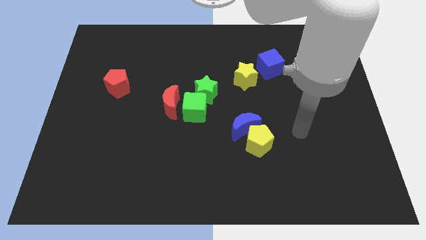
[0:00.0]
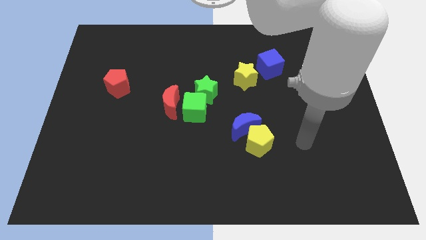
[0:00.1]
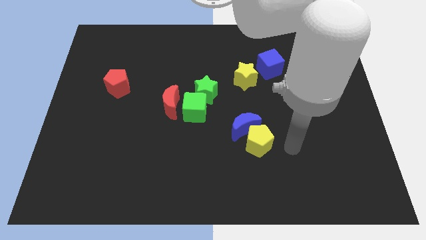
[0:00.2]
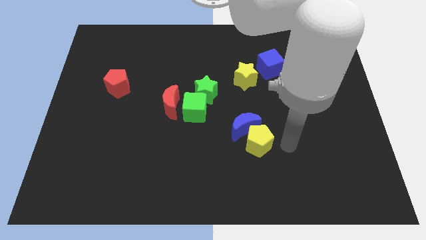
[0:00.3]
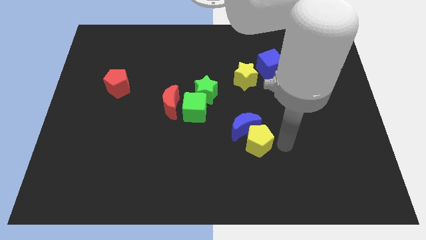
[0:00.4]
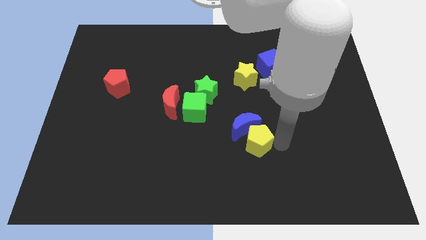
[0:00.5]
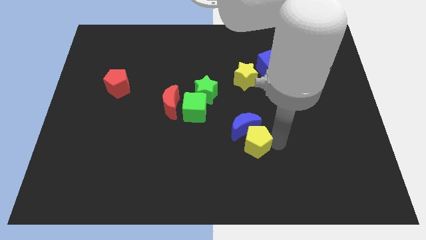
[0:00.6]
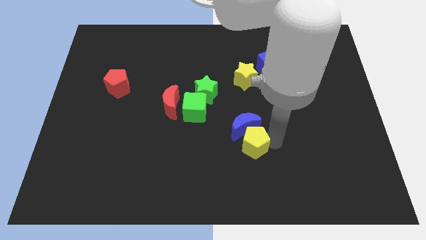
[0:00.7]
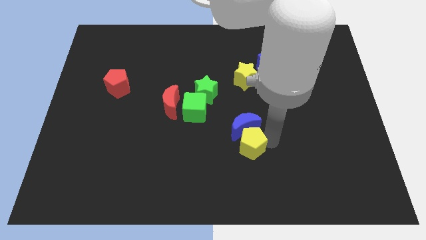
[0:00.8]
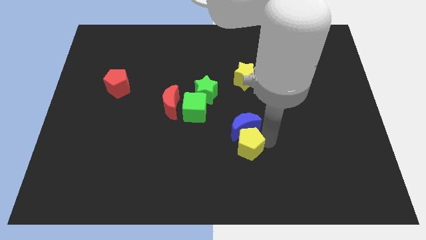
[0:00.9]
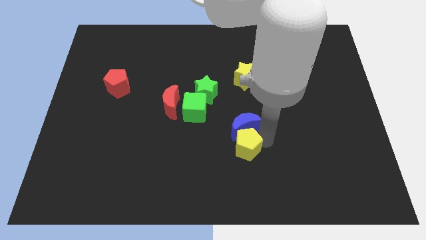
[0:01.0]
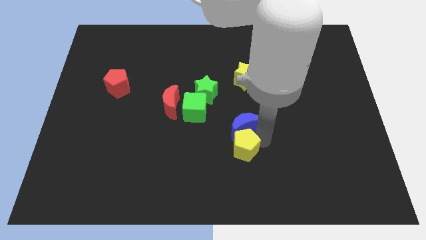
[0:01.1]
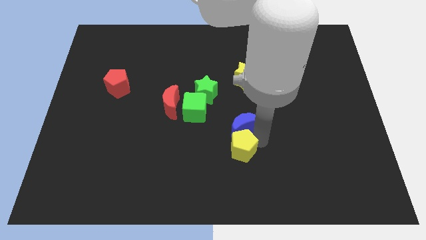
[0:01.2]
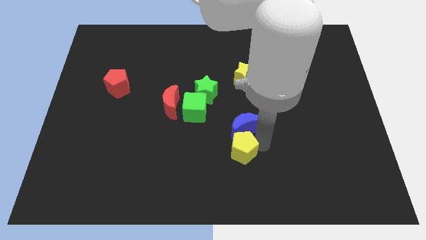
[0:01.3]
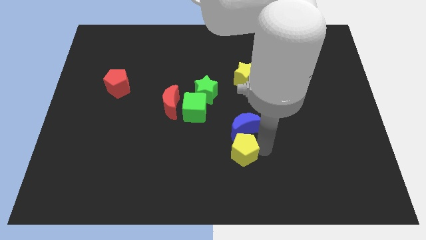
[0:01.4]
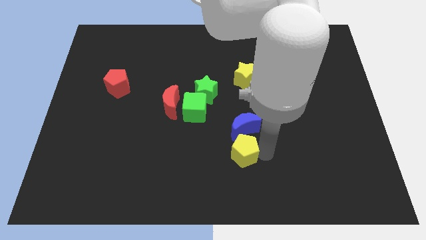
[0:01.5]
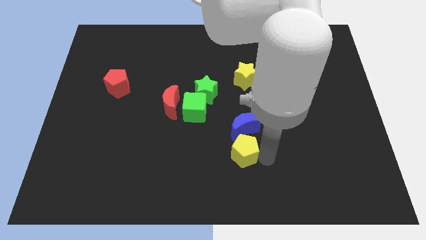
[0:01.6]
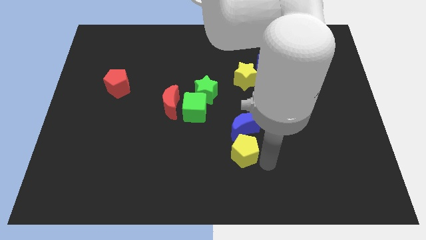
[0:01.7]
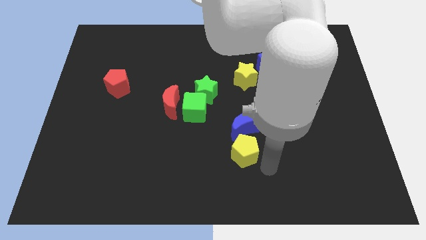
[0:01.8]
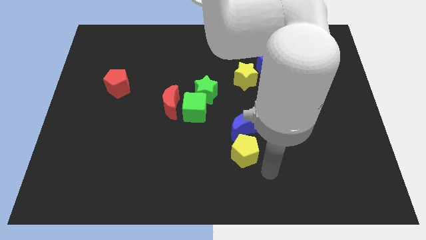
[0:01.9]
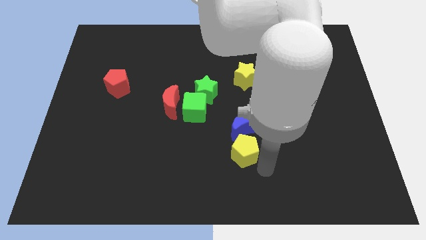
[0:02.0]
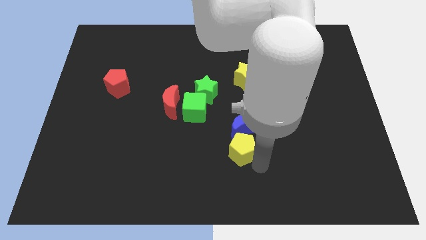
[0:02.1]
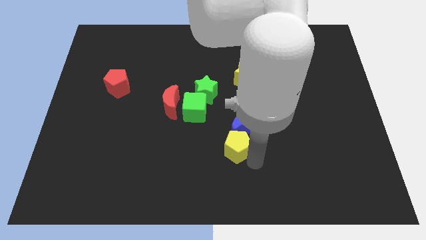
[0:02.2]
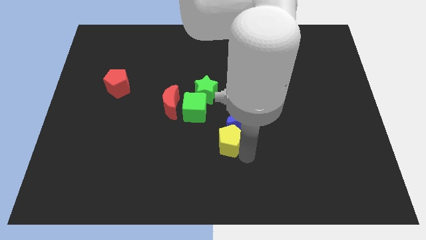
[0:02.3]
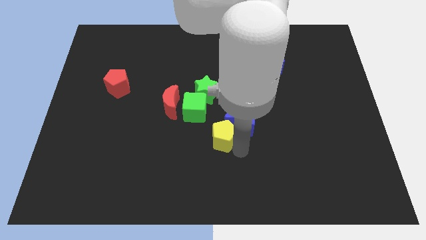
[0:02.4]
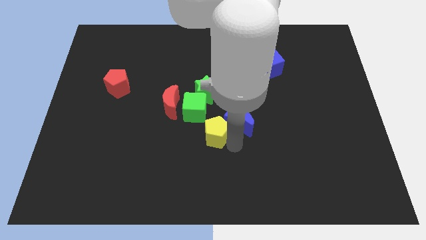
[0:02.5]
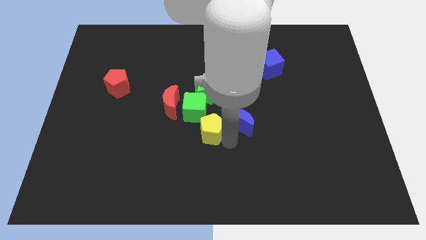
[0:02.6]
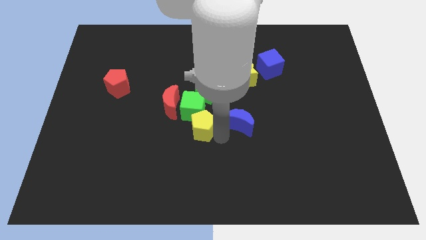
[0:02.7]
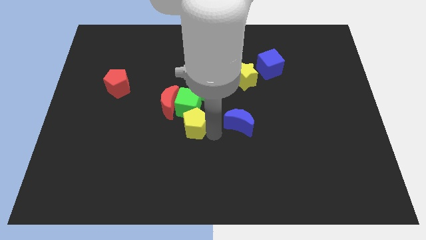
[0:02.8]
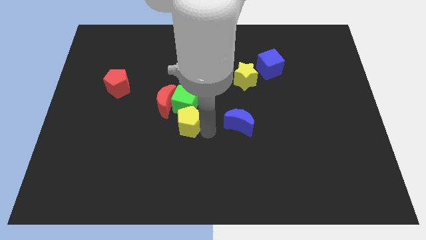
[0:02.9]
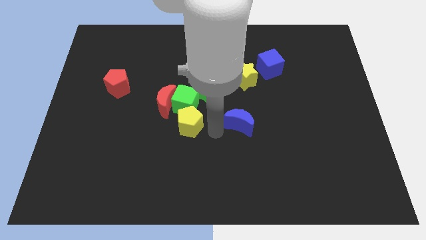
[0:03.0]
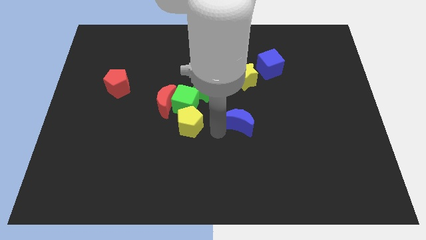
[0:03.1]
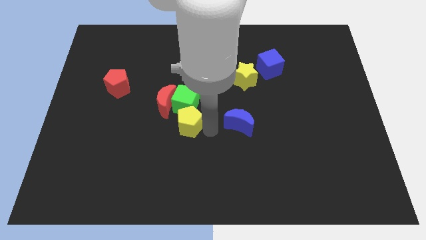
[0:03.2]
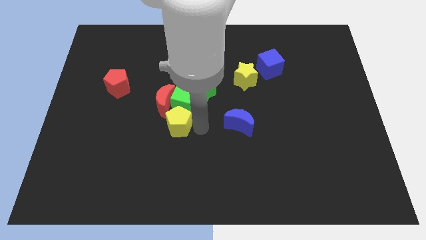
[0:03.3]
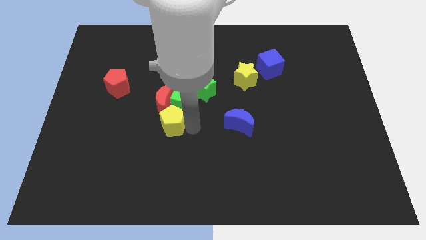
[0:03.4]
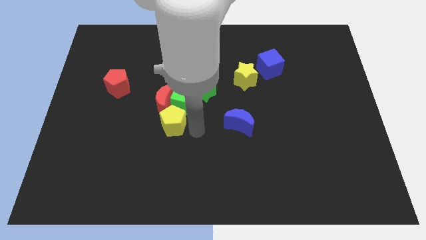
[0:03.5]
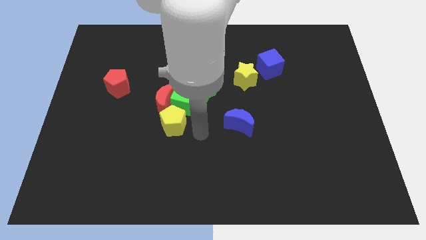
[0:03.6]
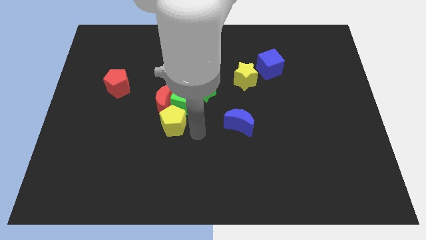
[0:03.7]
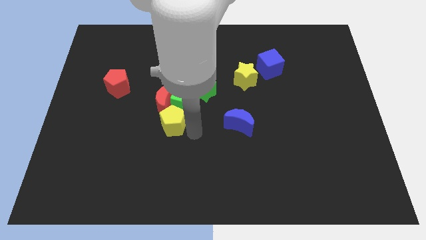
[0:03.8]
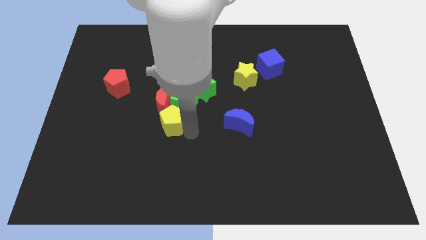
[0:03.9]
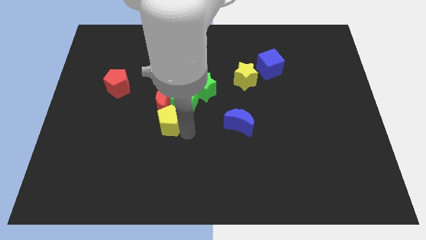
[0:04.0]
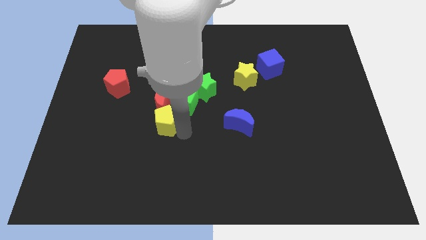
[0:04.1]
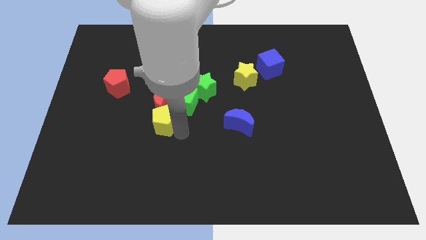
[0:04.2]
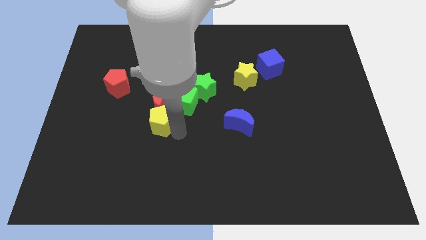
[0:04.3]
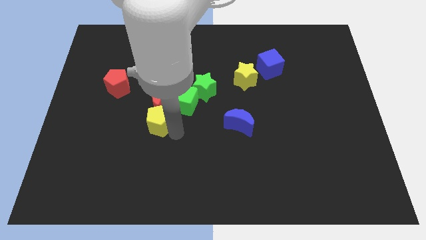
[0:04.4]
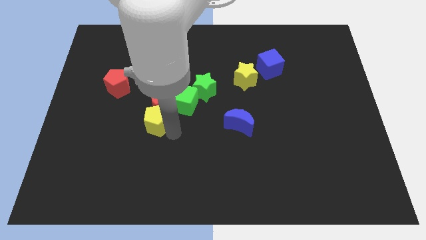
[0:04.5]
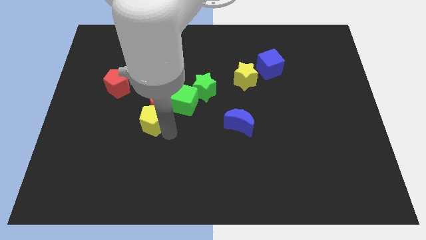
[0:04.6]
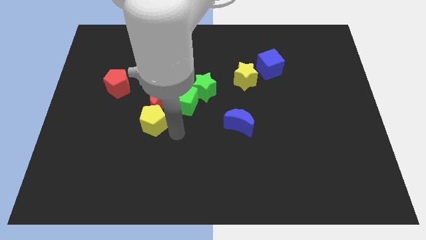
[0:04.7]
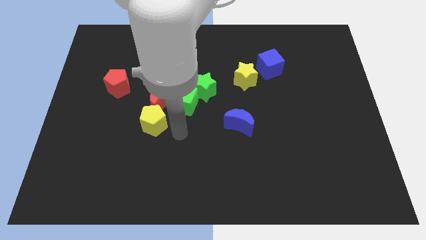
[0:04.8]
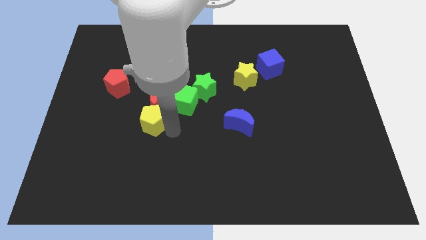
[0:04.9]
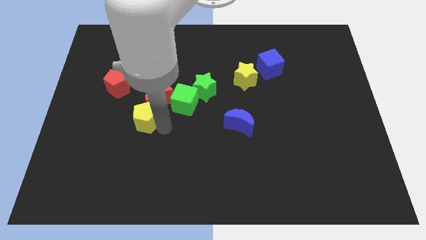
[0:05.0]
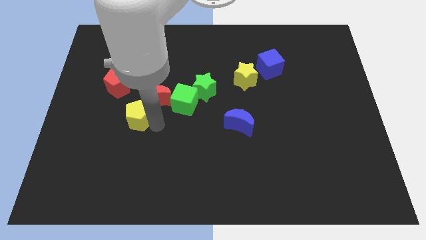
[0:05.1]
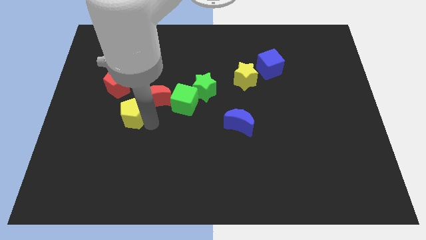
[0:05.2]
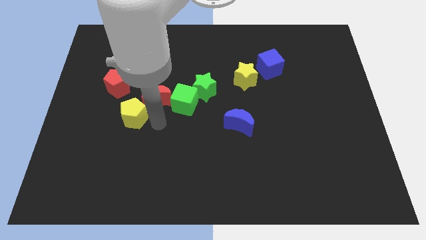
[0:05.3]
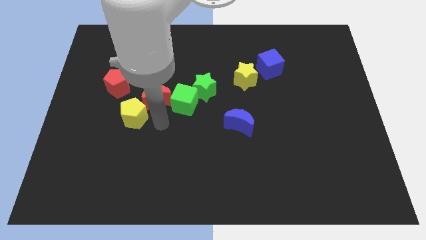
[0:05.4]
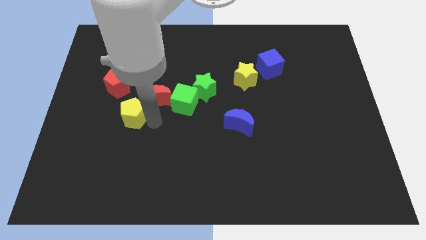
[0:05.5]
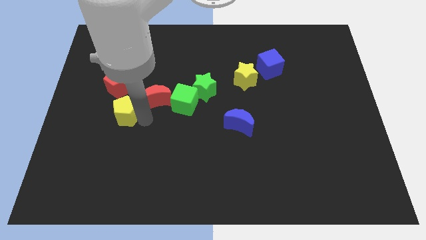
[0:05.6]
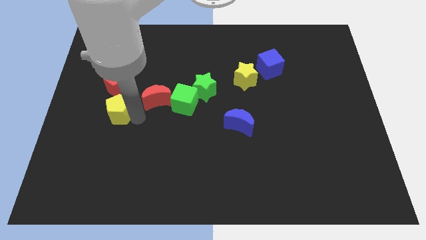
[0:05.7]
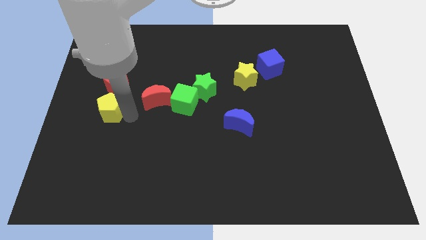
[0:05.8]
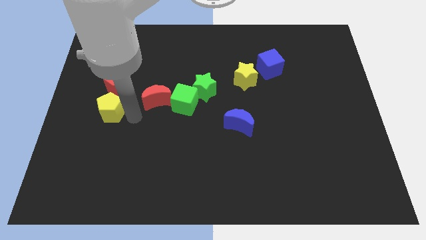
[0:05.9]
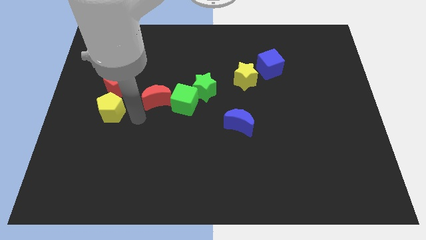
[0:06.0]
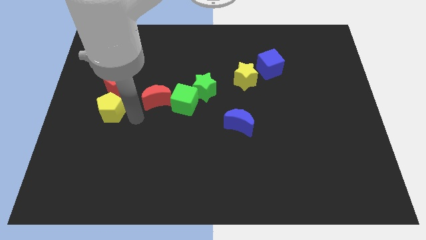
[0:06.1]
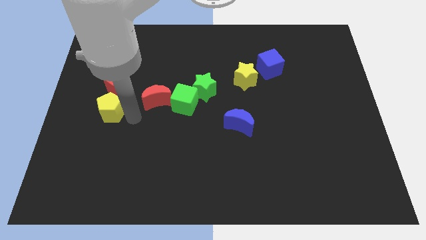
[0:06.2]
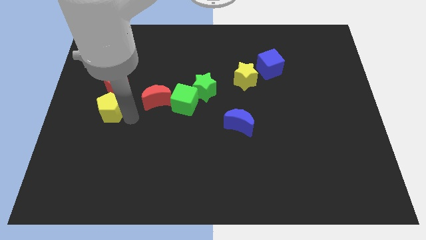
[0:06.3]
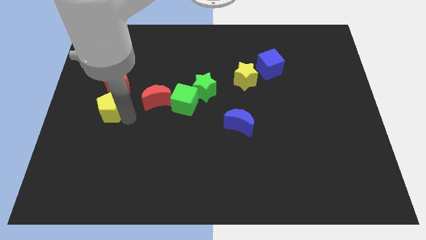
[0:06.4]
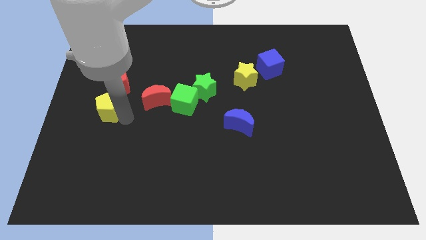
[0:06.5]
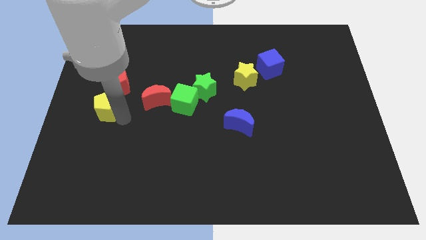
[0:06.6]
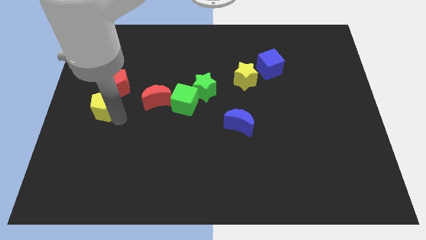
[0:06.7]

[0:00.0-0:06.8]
slide the yellow pentagon to the left side of the board
